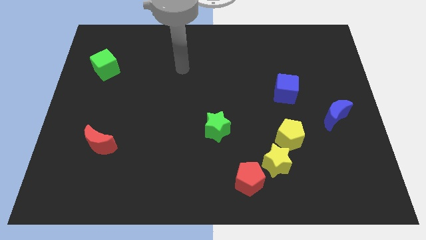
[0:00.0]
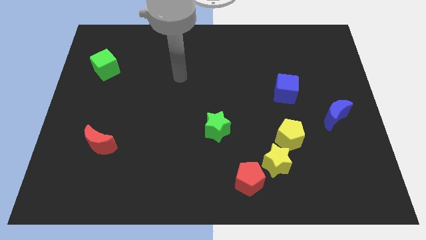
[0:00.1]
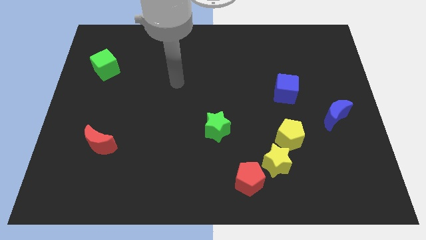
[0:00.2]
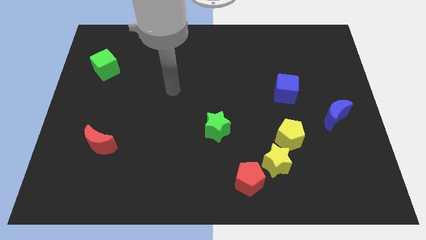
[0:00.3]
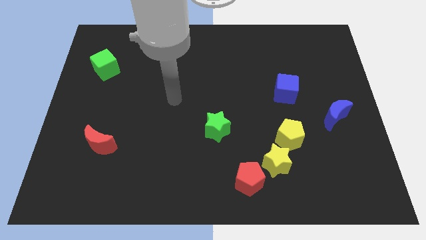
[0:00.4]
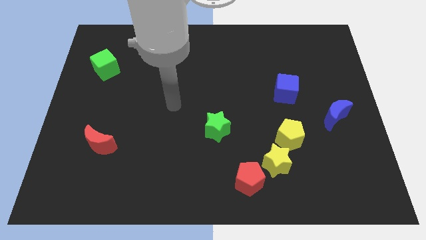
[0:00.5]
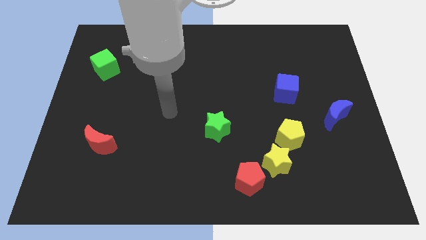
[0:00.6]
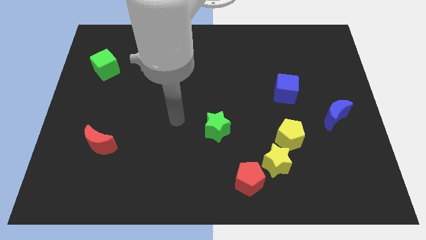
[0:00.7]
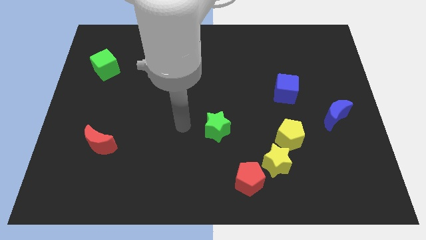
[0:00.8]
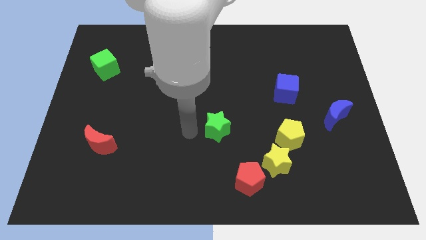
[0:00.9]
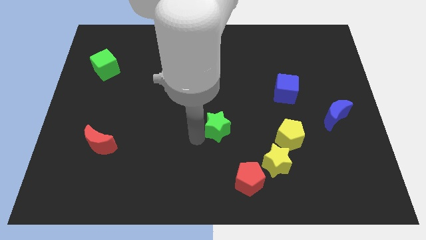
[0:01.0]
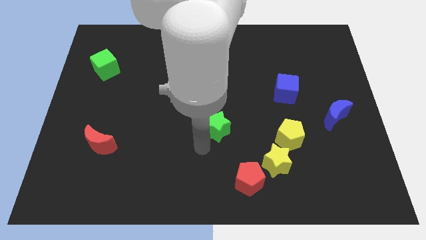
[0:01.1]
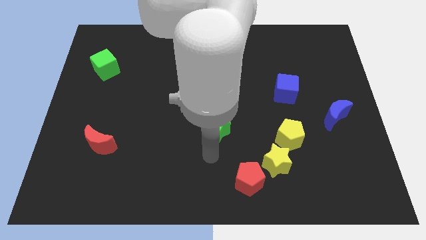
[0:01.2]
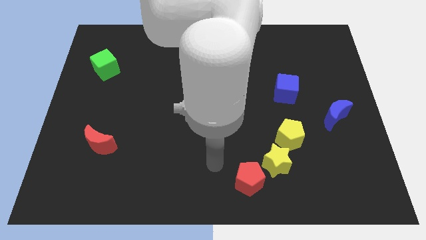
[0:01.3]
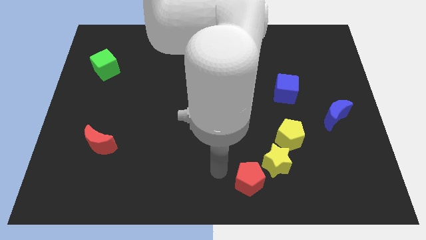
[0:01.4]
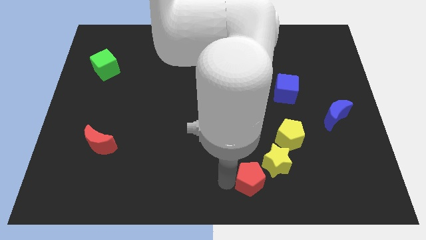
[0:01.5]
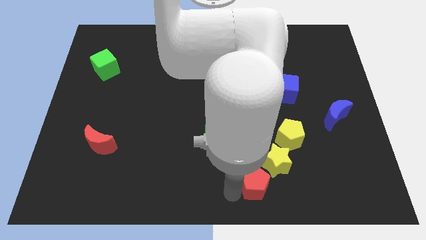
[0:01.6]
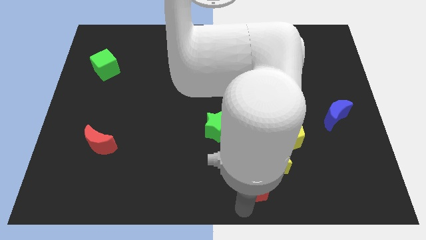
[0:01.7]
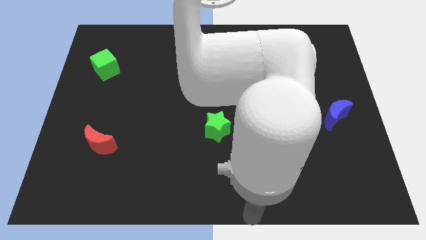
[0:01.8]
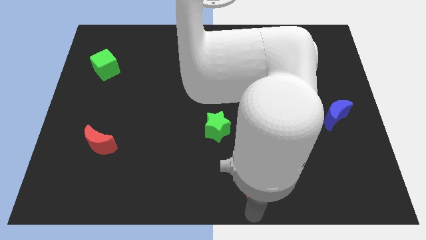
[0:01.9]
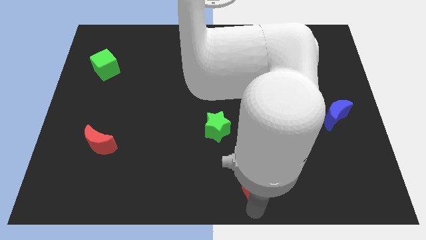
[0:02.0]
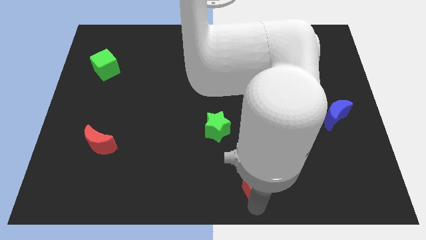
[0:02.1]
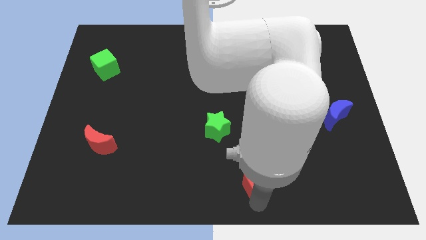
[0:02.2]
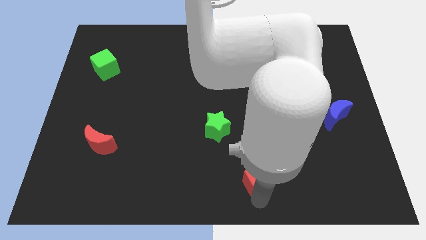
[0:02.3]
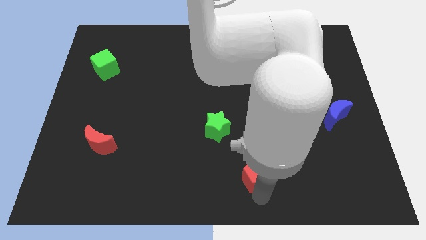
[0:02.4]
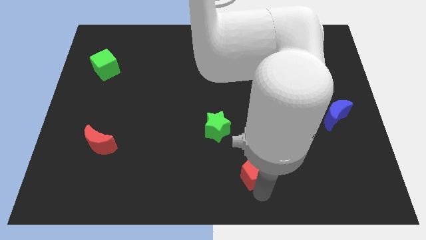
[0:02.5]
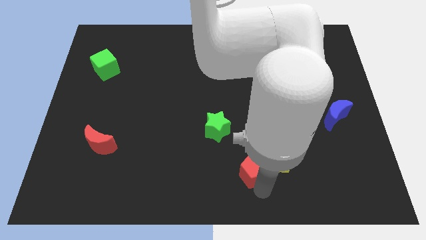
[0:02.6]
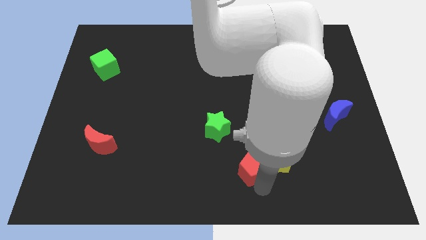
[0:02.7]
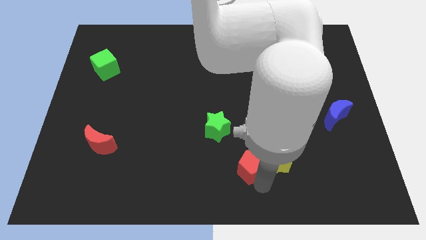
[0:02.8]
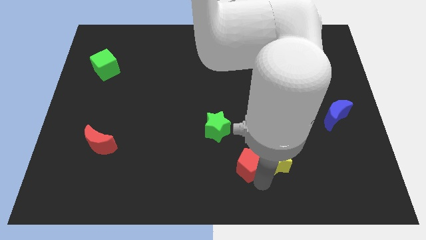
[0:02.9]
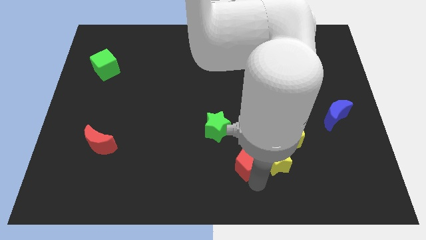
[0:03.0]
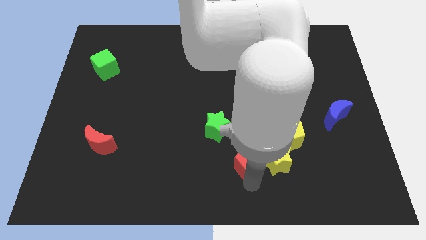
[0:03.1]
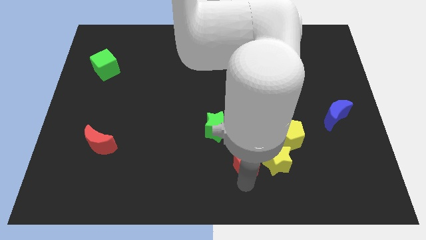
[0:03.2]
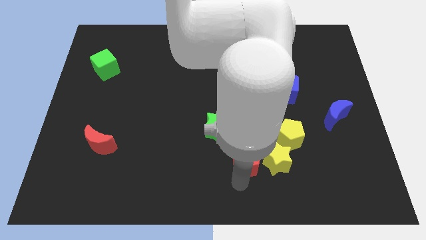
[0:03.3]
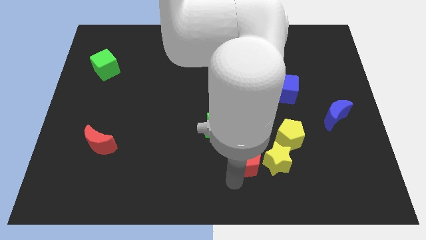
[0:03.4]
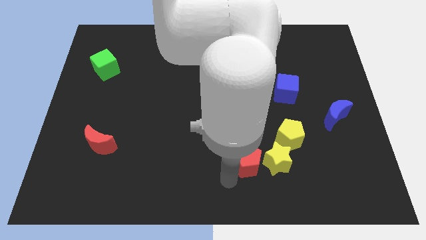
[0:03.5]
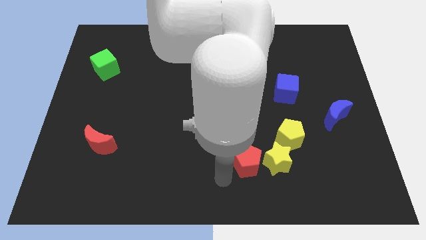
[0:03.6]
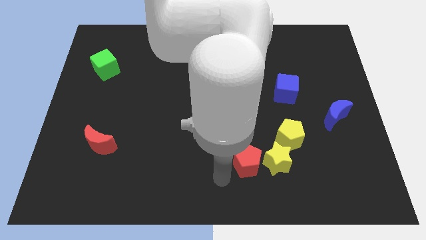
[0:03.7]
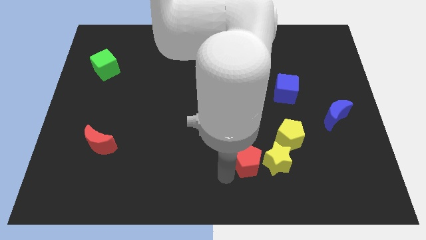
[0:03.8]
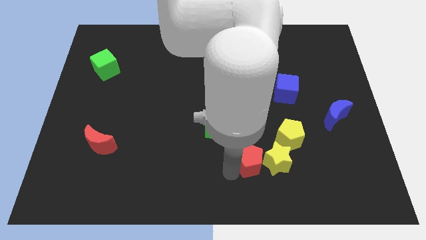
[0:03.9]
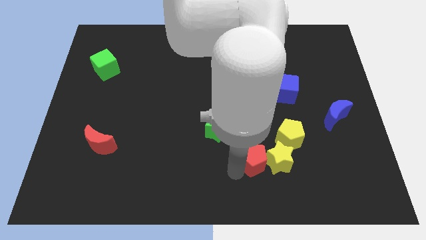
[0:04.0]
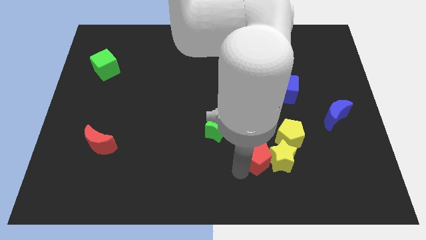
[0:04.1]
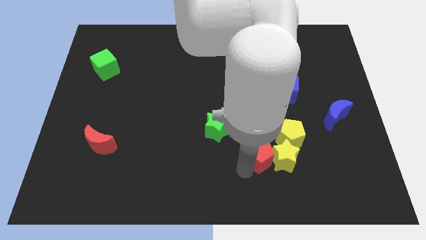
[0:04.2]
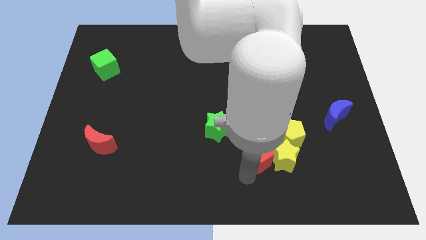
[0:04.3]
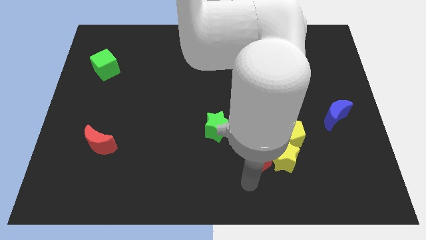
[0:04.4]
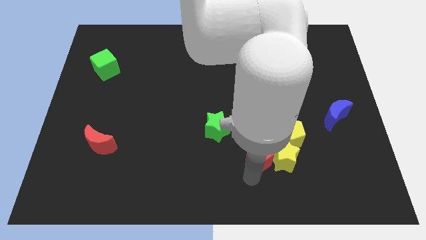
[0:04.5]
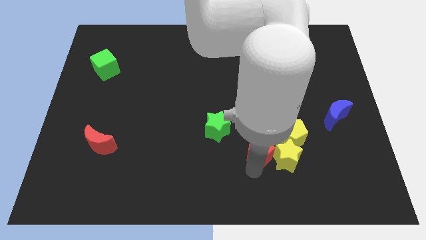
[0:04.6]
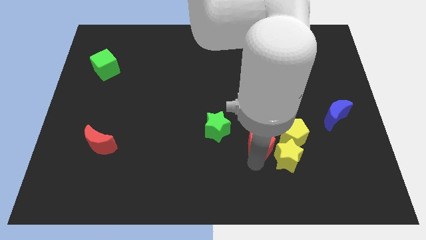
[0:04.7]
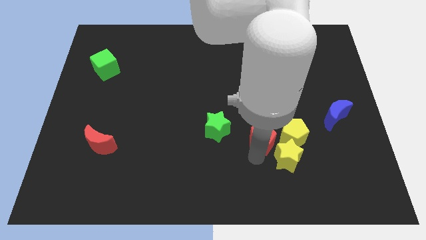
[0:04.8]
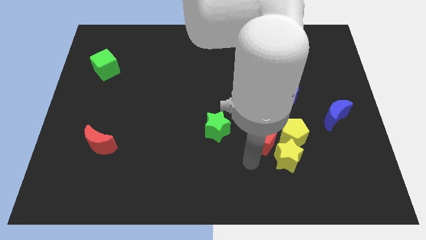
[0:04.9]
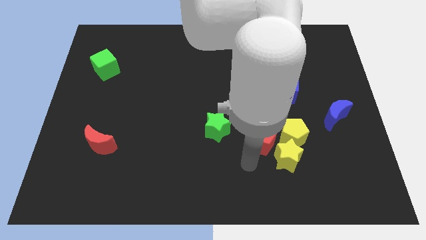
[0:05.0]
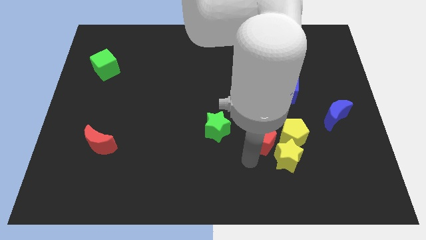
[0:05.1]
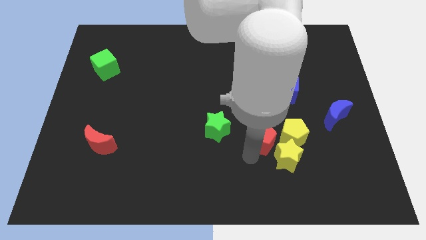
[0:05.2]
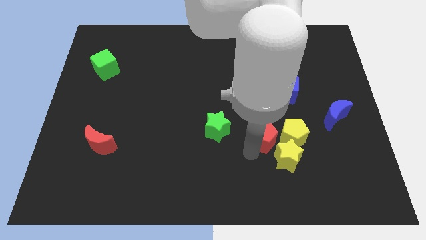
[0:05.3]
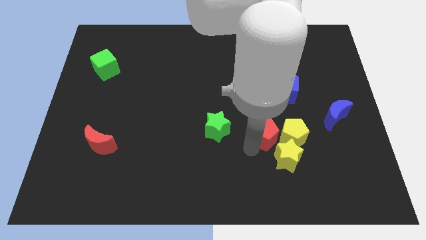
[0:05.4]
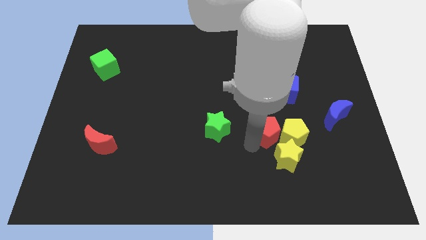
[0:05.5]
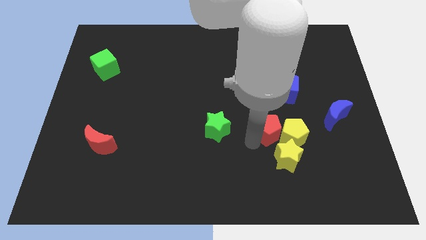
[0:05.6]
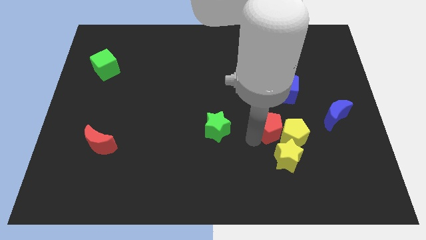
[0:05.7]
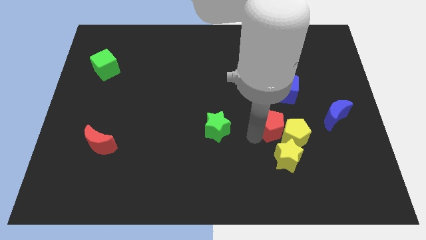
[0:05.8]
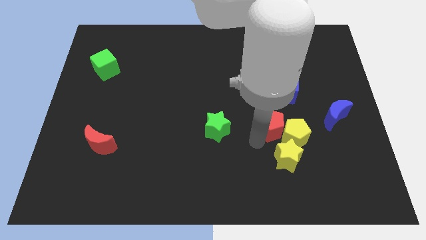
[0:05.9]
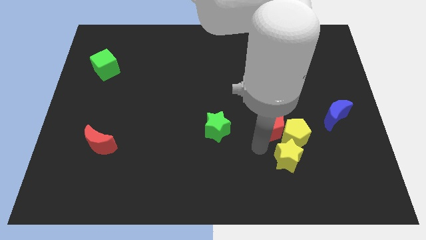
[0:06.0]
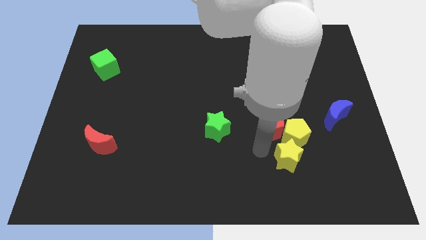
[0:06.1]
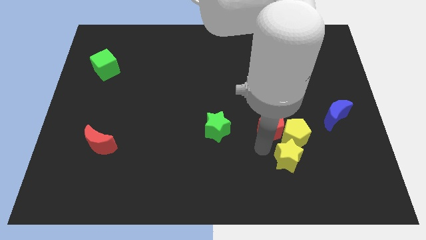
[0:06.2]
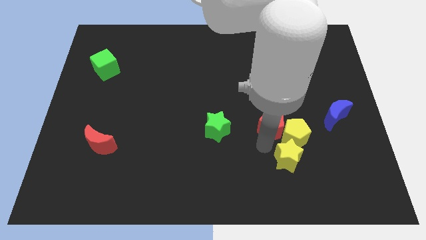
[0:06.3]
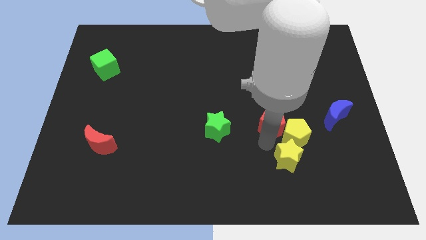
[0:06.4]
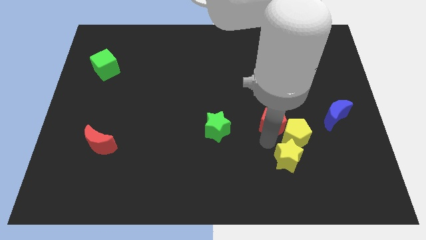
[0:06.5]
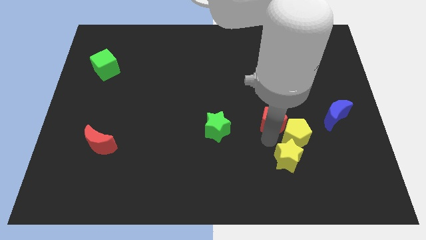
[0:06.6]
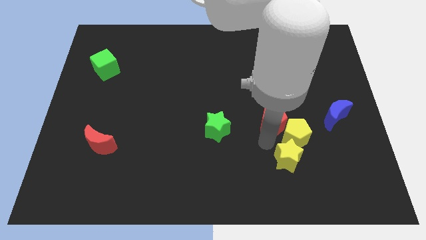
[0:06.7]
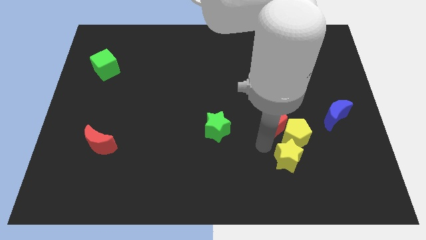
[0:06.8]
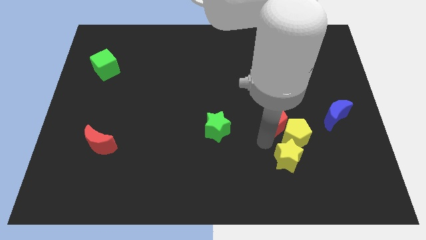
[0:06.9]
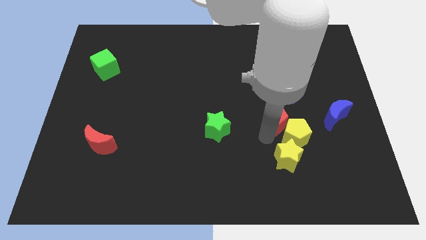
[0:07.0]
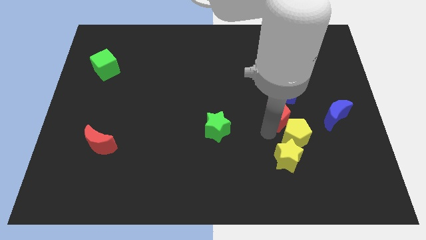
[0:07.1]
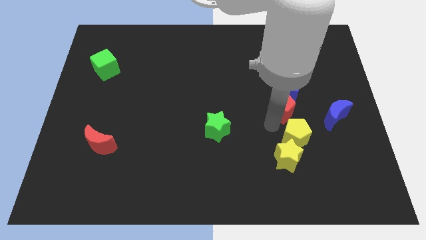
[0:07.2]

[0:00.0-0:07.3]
slide the red pentagon towards the blue cube
